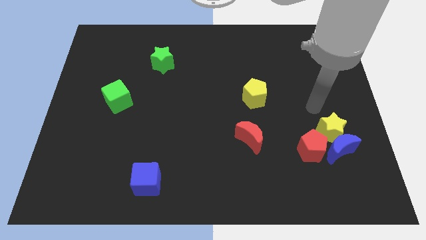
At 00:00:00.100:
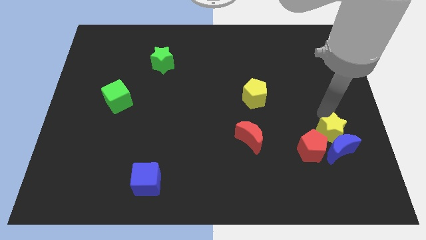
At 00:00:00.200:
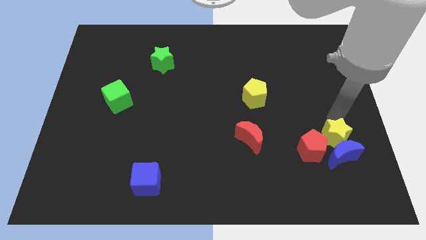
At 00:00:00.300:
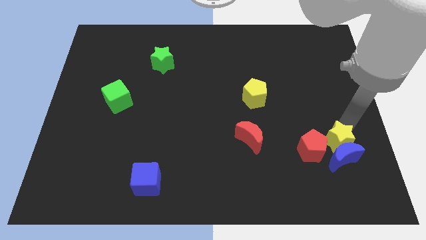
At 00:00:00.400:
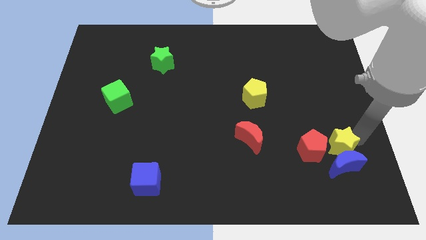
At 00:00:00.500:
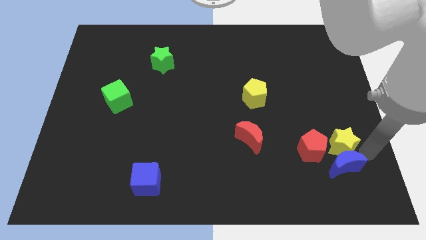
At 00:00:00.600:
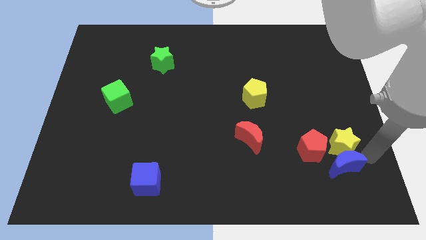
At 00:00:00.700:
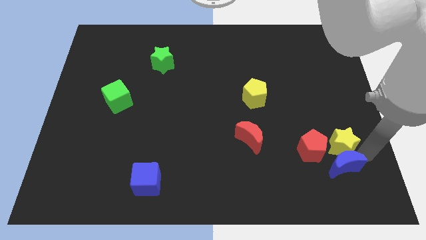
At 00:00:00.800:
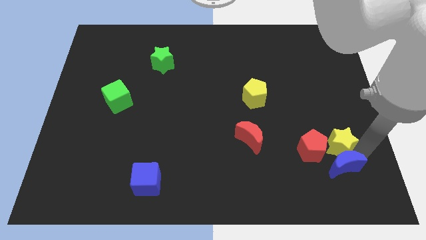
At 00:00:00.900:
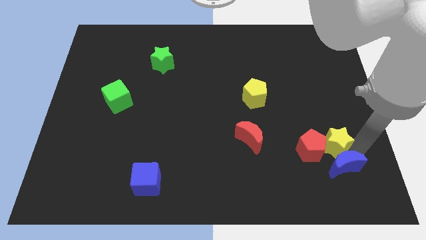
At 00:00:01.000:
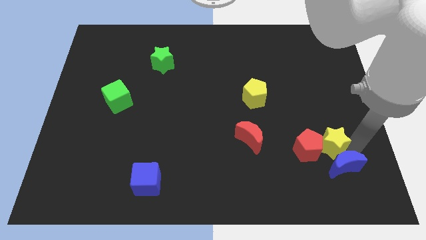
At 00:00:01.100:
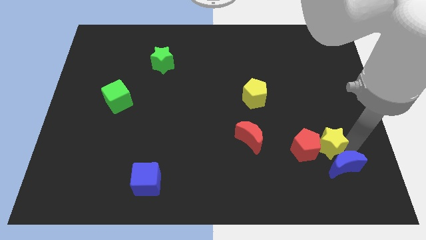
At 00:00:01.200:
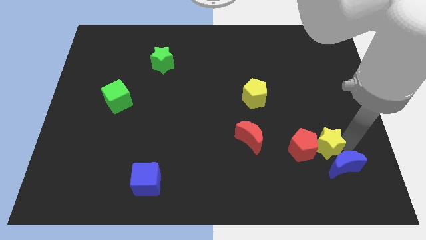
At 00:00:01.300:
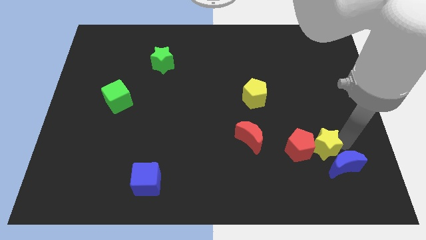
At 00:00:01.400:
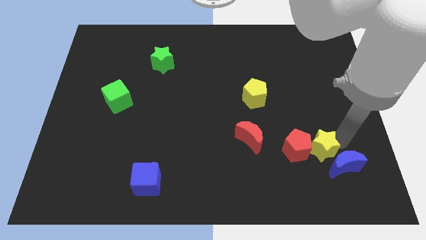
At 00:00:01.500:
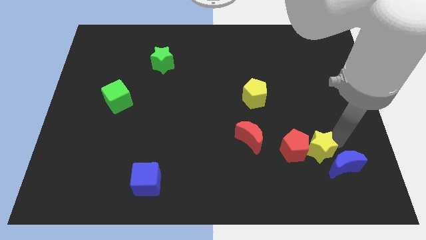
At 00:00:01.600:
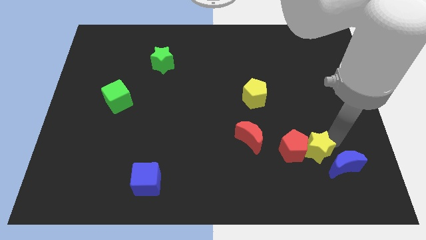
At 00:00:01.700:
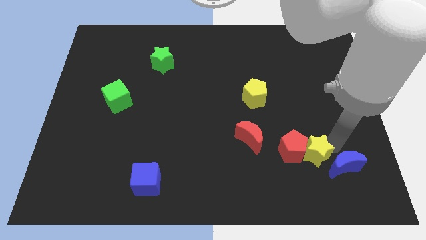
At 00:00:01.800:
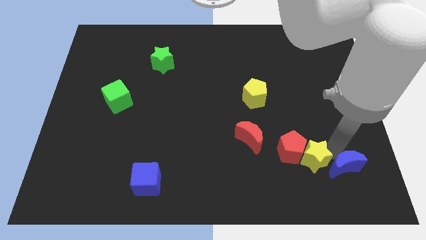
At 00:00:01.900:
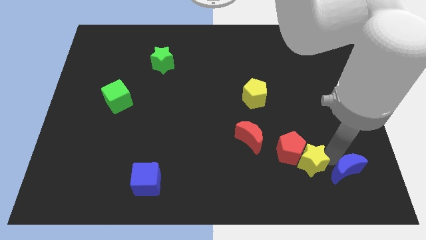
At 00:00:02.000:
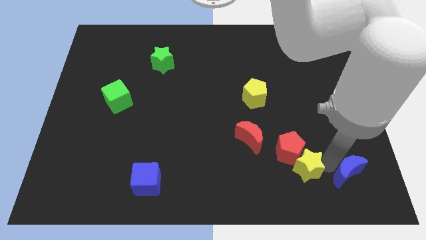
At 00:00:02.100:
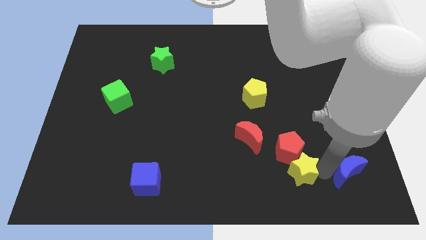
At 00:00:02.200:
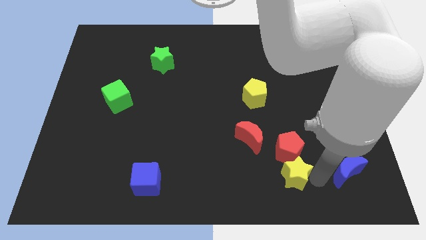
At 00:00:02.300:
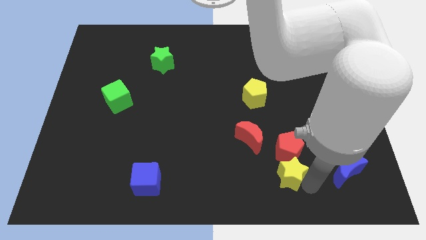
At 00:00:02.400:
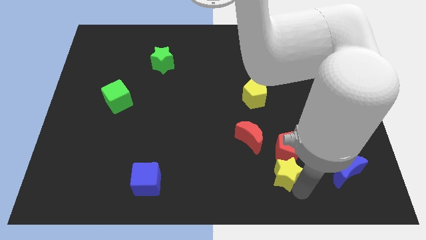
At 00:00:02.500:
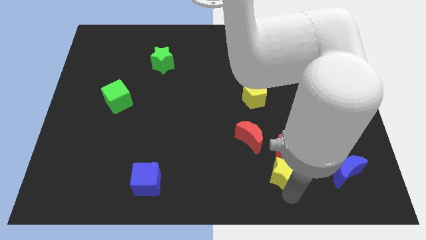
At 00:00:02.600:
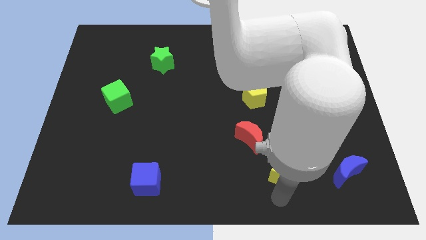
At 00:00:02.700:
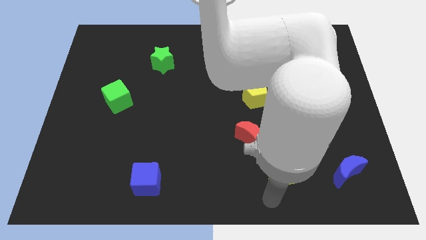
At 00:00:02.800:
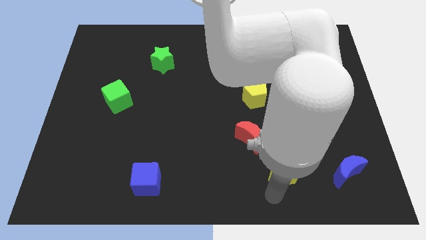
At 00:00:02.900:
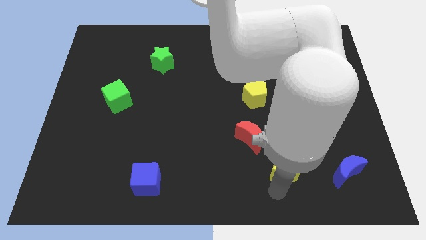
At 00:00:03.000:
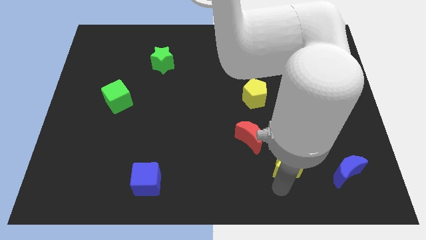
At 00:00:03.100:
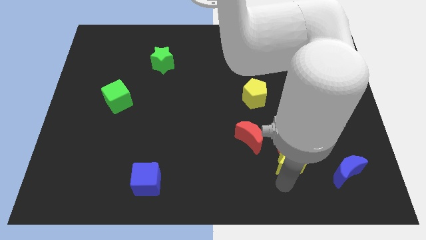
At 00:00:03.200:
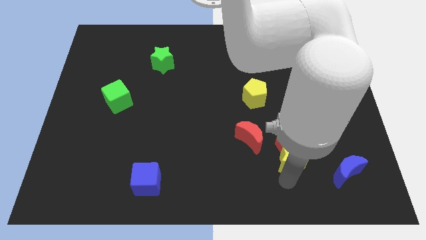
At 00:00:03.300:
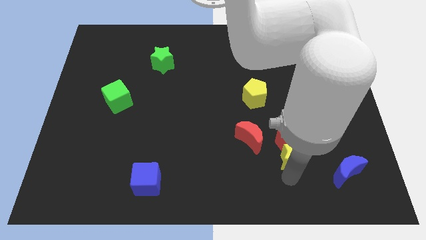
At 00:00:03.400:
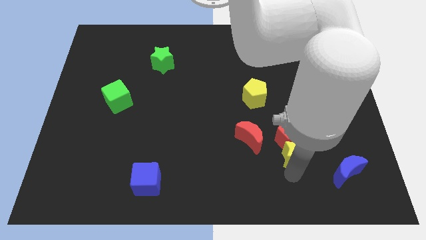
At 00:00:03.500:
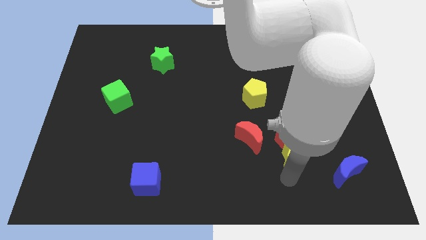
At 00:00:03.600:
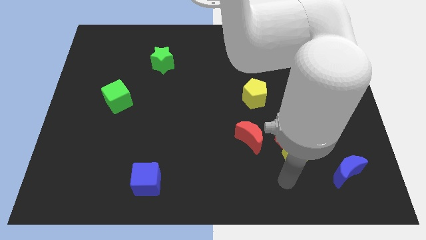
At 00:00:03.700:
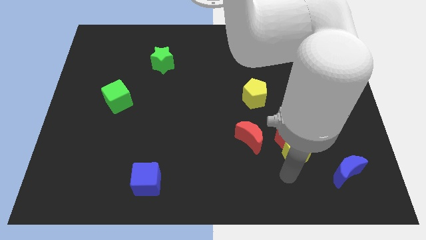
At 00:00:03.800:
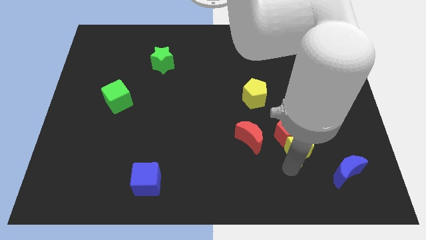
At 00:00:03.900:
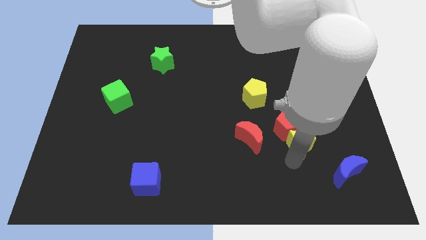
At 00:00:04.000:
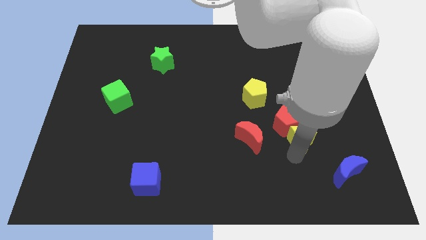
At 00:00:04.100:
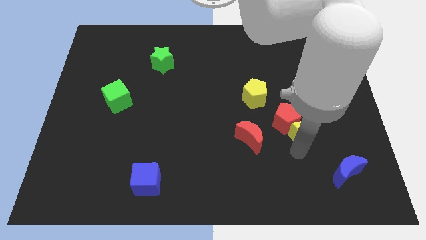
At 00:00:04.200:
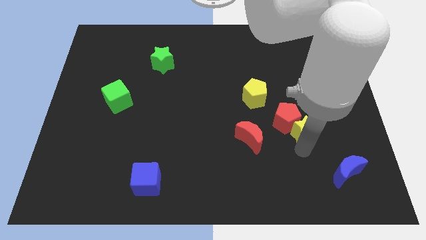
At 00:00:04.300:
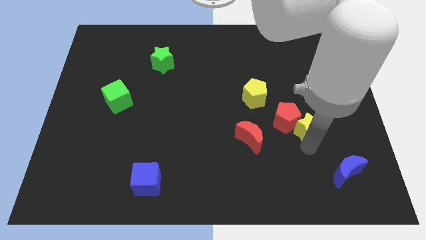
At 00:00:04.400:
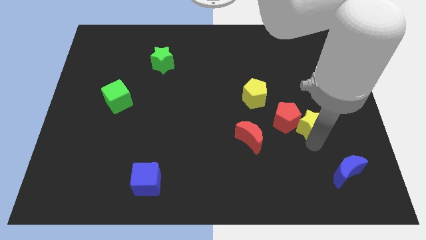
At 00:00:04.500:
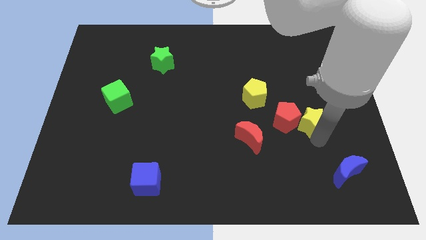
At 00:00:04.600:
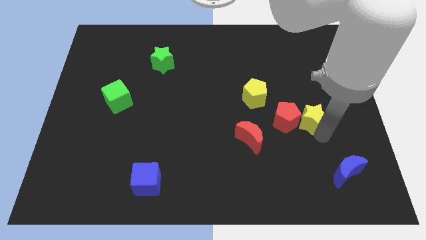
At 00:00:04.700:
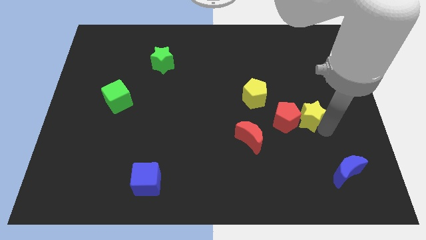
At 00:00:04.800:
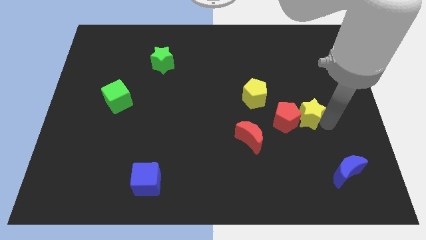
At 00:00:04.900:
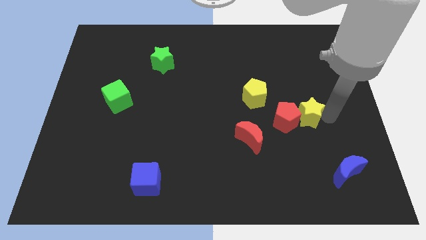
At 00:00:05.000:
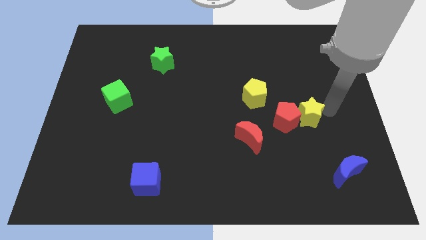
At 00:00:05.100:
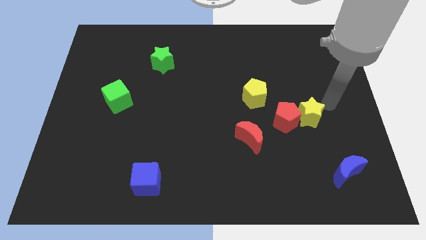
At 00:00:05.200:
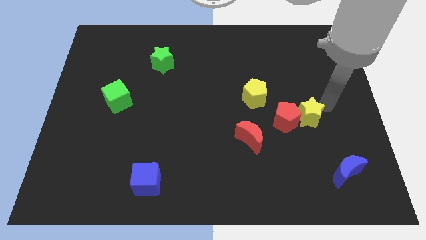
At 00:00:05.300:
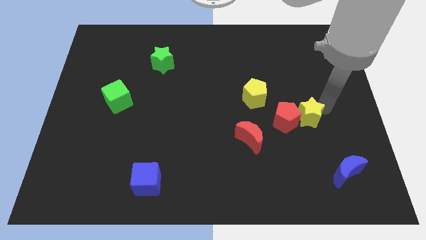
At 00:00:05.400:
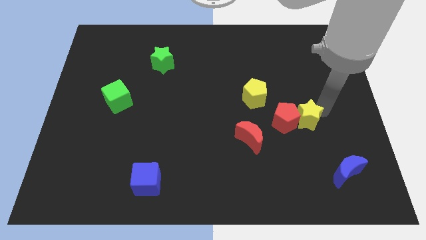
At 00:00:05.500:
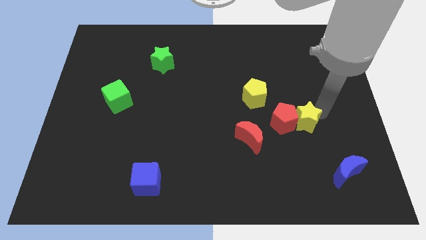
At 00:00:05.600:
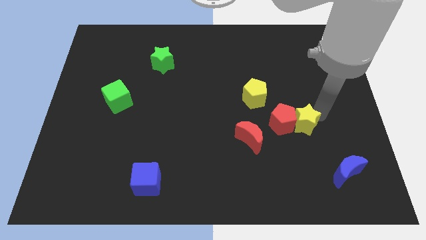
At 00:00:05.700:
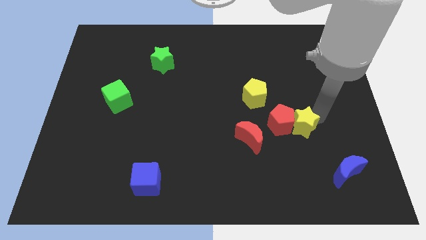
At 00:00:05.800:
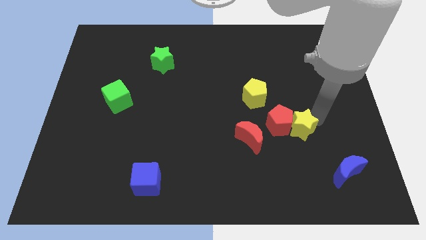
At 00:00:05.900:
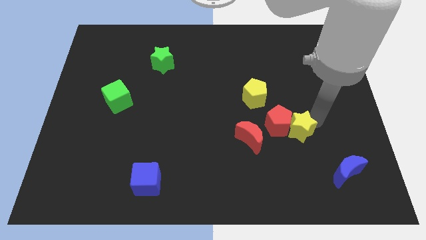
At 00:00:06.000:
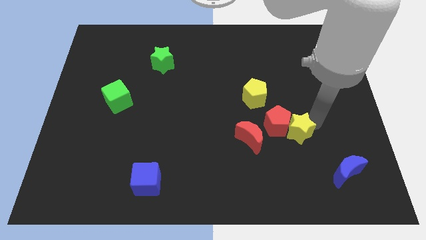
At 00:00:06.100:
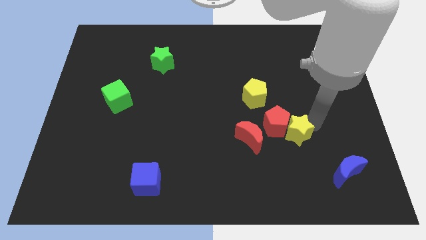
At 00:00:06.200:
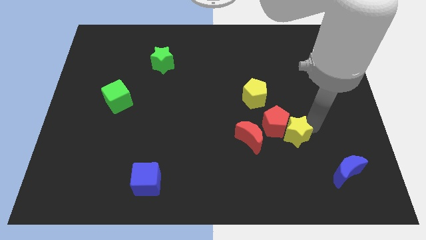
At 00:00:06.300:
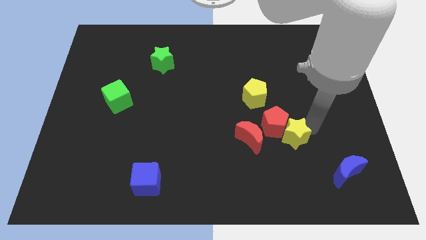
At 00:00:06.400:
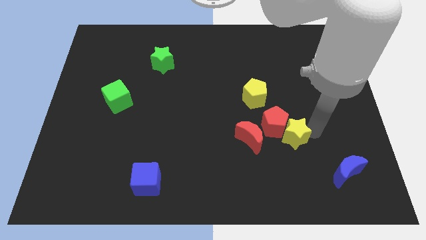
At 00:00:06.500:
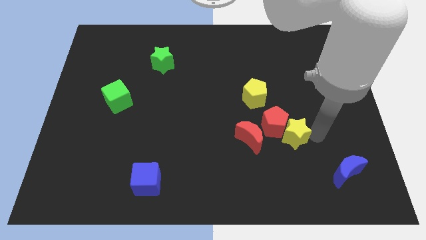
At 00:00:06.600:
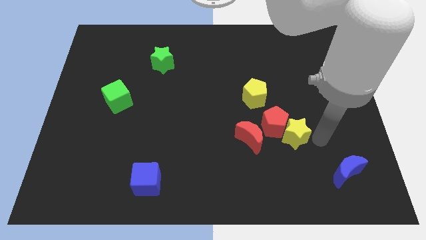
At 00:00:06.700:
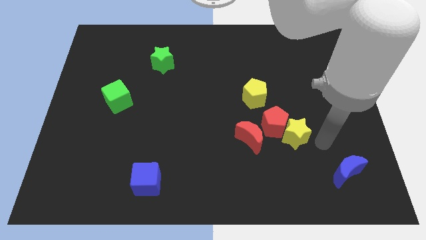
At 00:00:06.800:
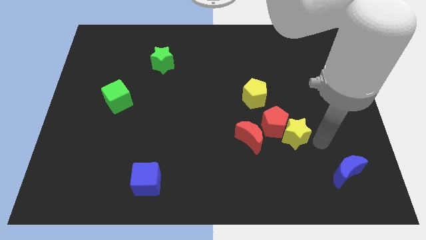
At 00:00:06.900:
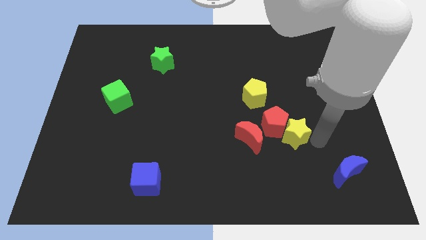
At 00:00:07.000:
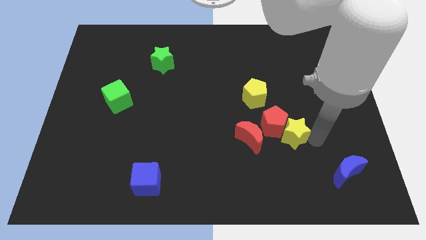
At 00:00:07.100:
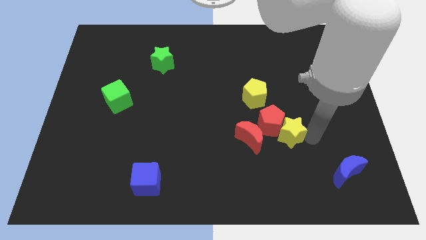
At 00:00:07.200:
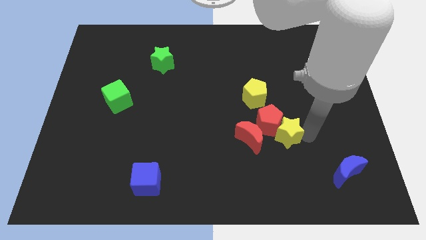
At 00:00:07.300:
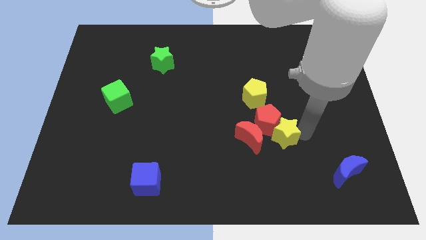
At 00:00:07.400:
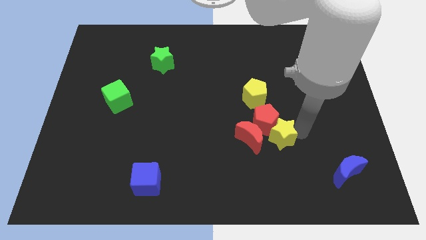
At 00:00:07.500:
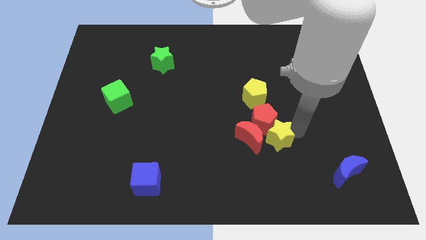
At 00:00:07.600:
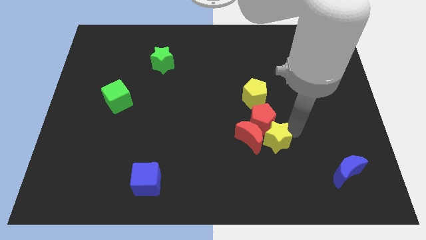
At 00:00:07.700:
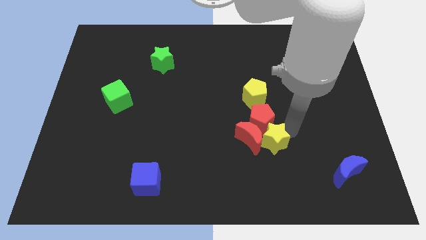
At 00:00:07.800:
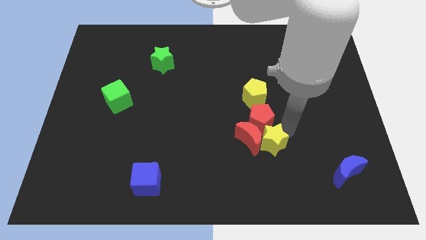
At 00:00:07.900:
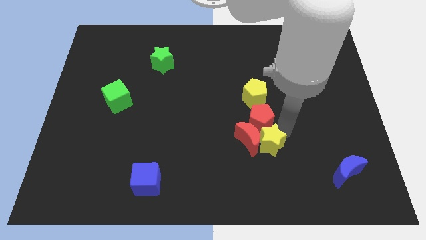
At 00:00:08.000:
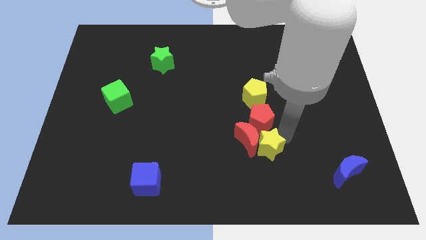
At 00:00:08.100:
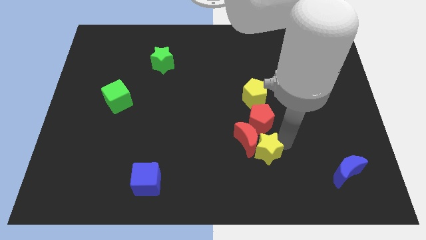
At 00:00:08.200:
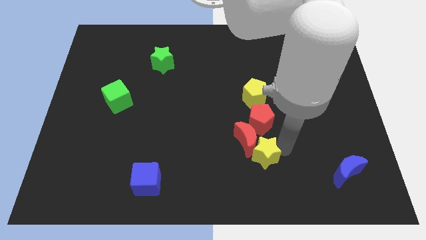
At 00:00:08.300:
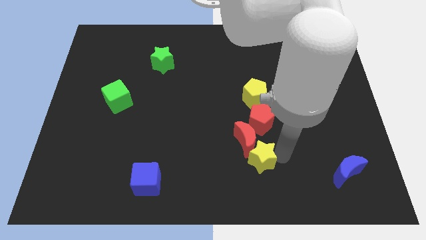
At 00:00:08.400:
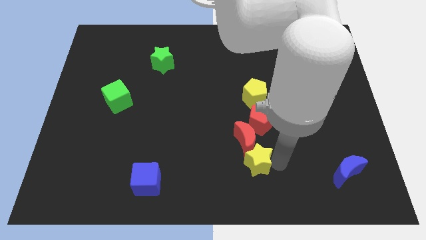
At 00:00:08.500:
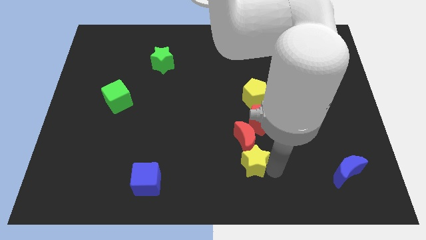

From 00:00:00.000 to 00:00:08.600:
put the yellow star diagonally down and to the left of the red moon
